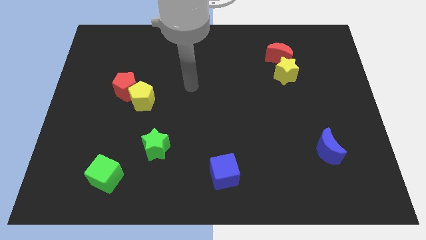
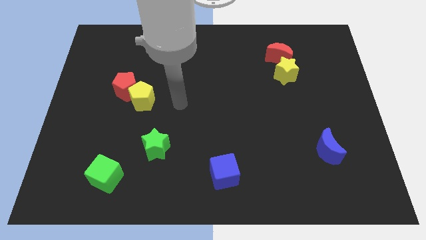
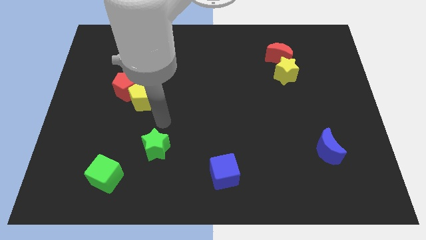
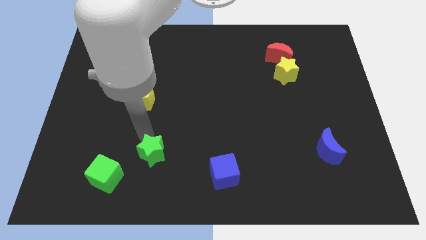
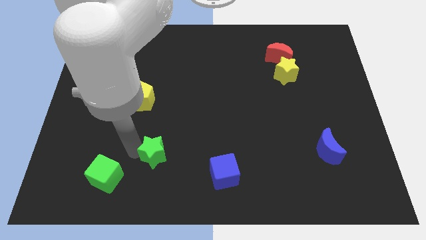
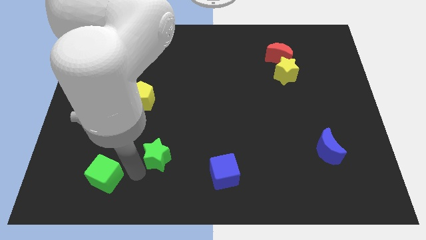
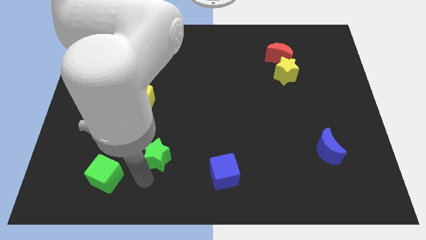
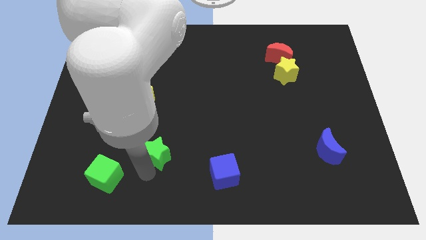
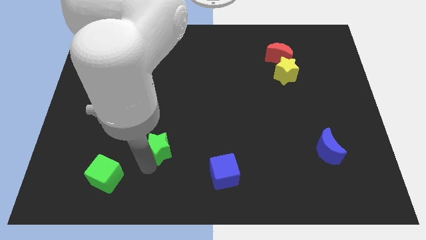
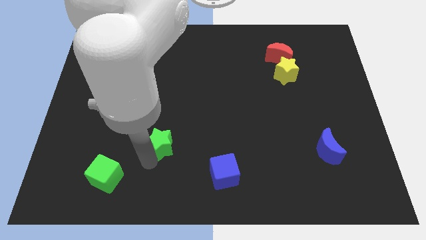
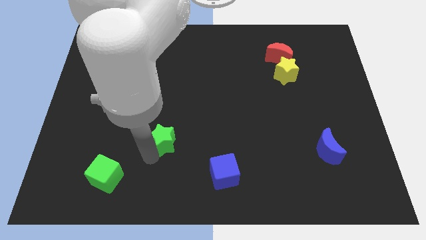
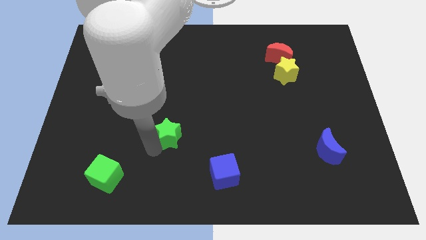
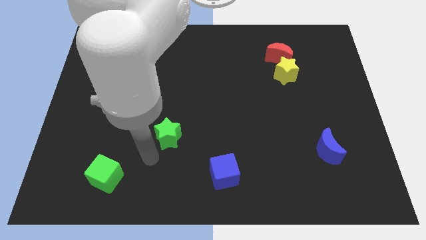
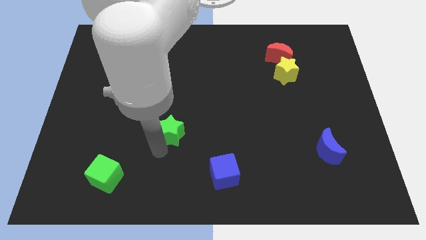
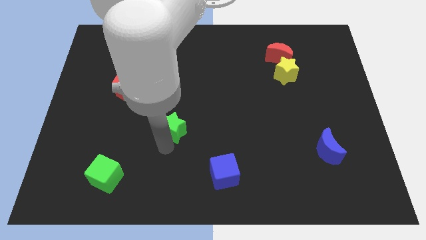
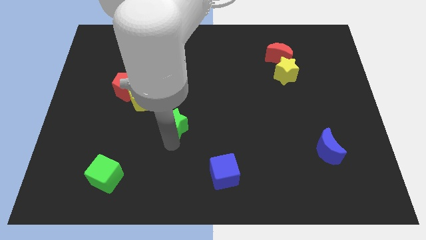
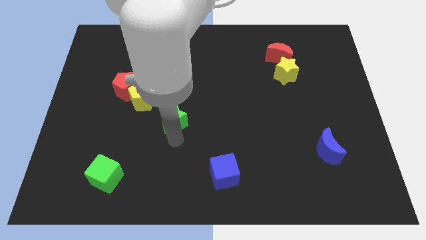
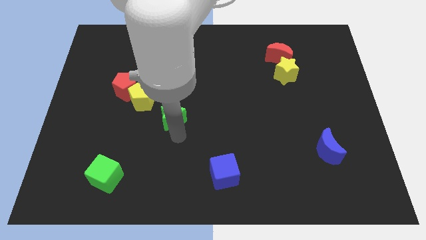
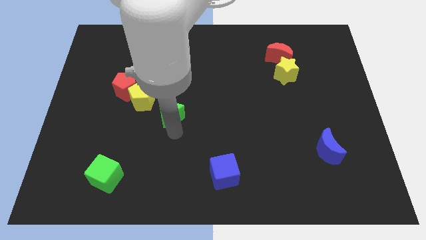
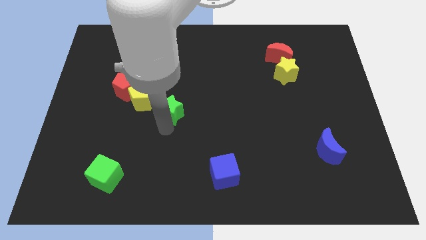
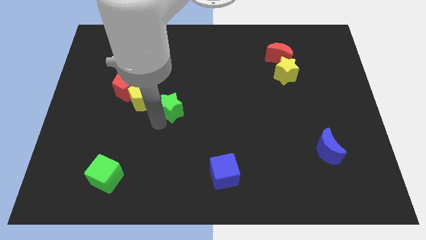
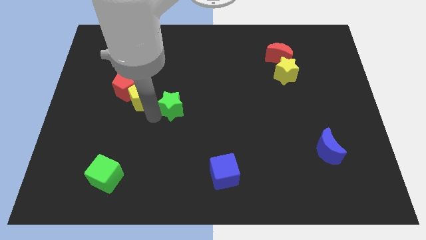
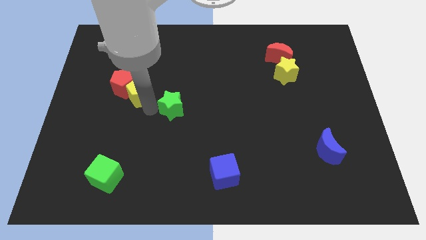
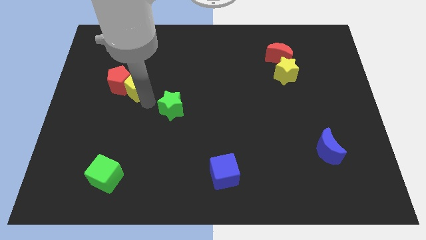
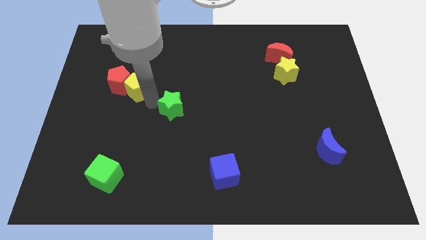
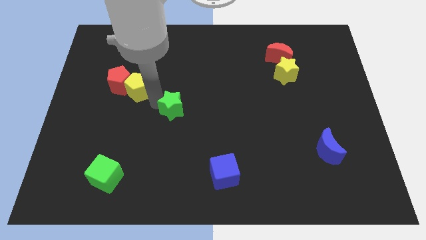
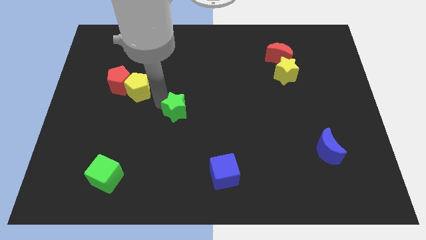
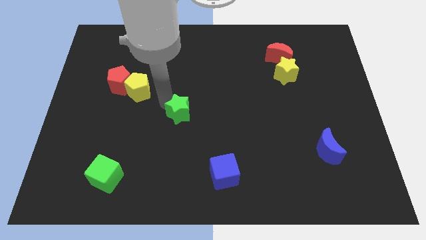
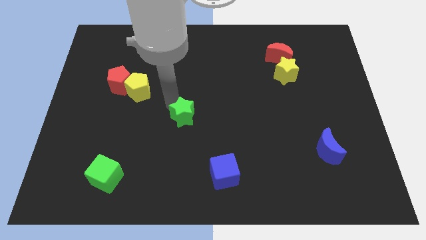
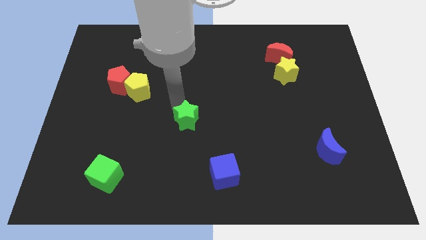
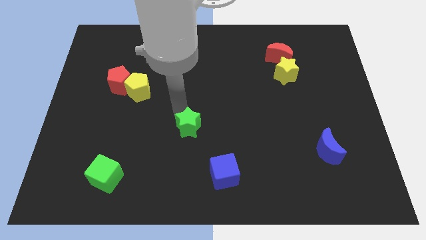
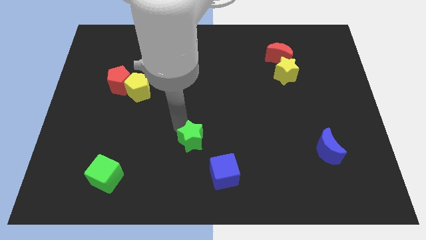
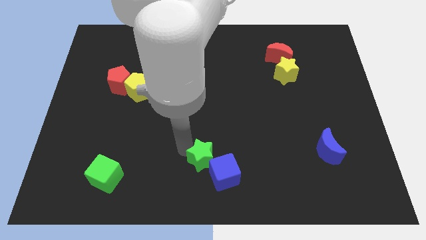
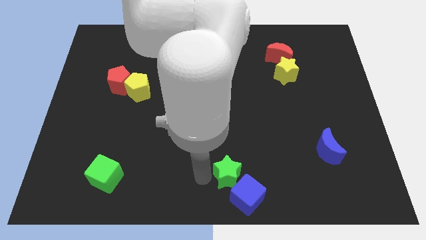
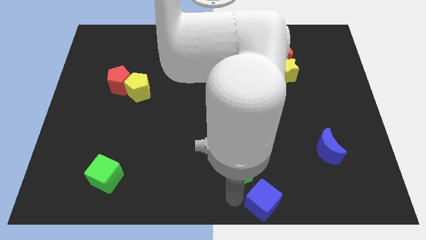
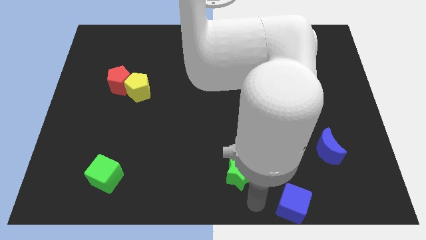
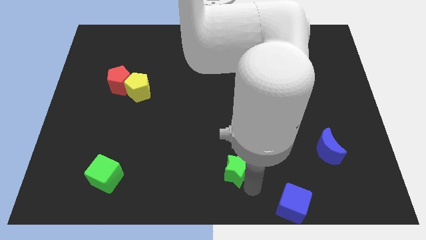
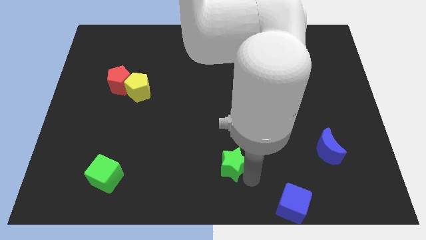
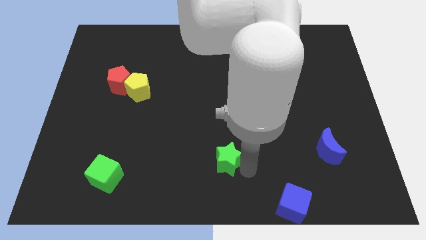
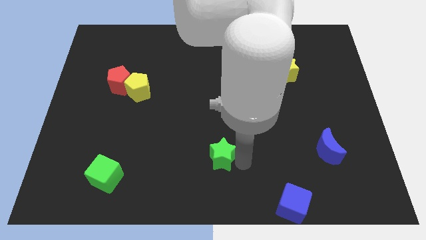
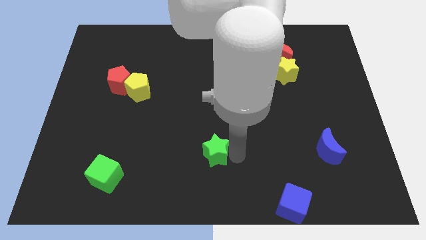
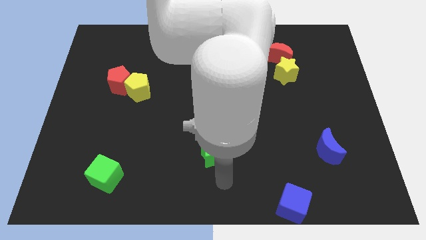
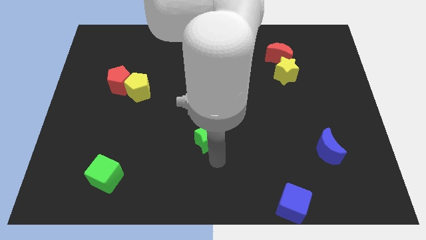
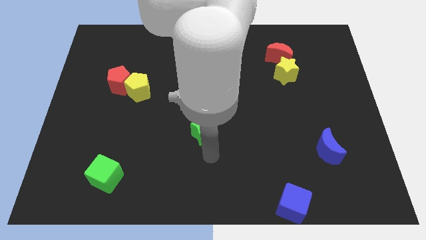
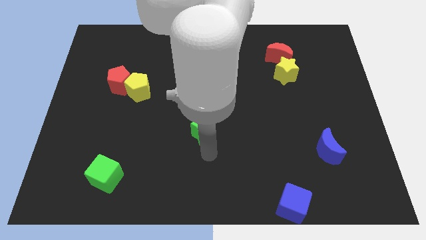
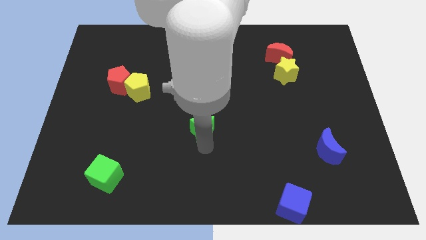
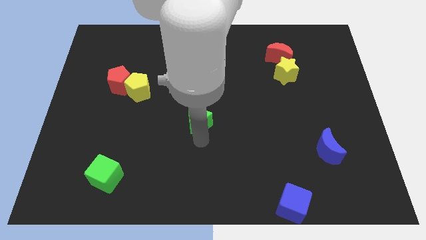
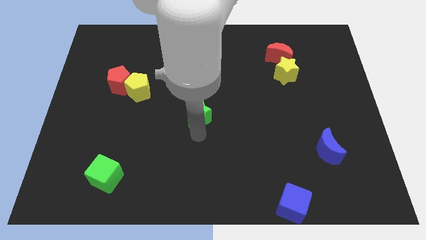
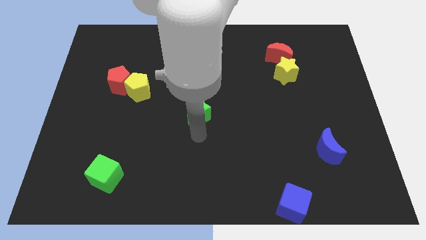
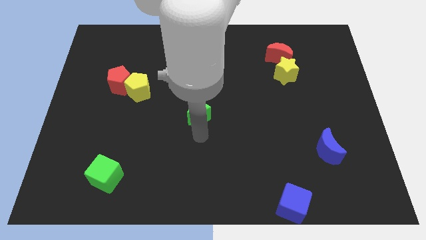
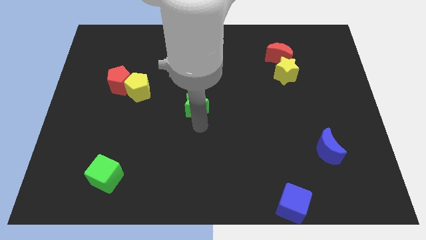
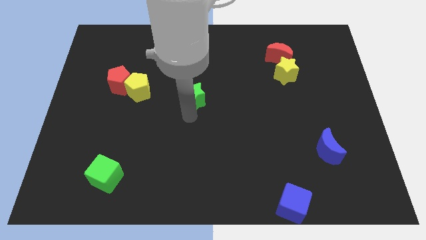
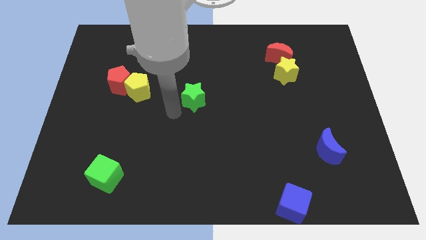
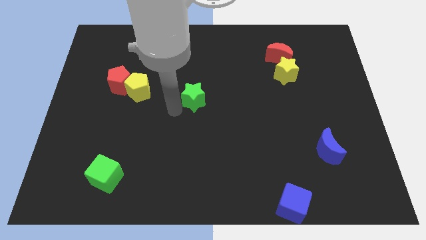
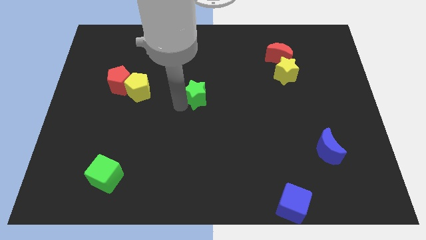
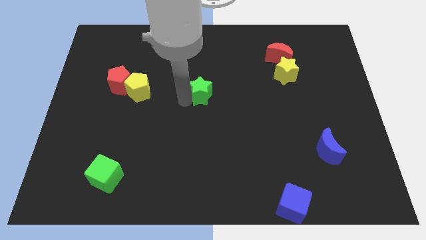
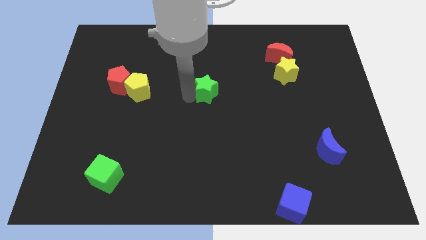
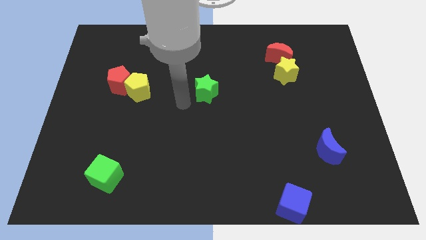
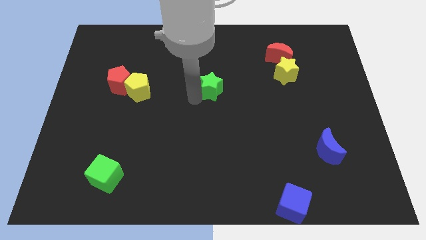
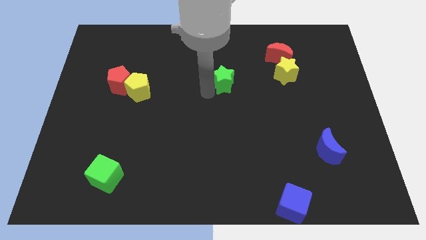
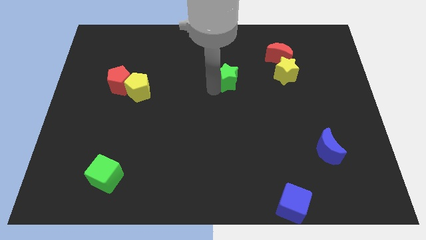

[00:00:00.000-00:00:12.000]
push the green star left of the yellow star

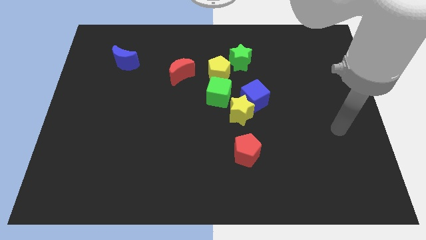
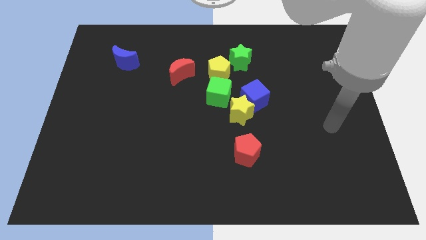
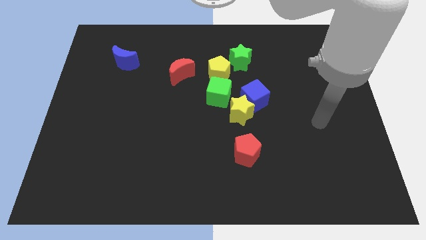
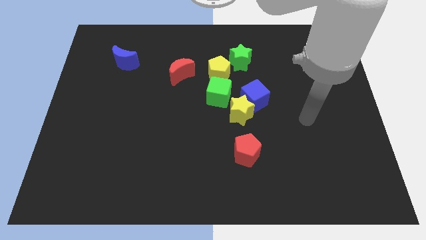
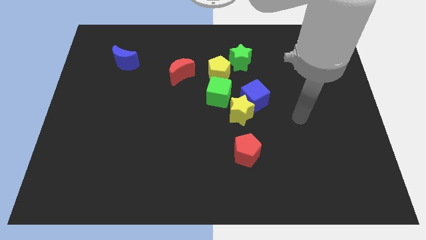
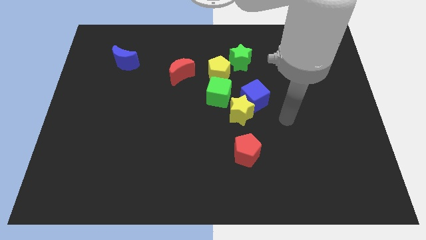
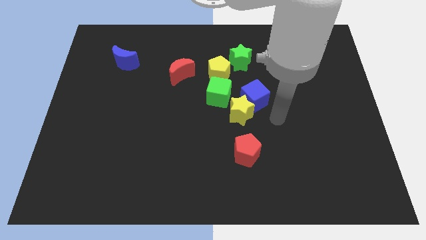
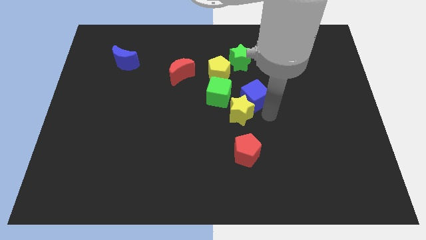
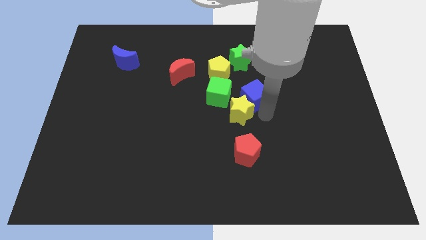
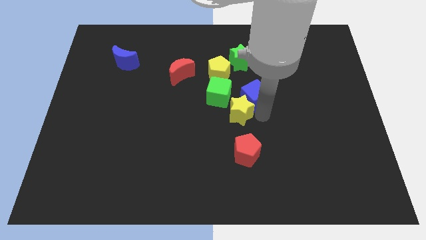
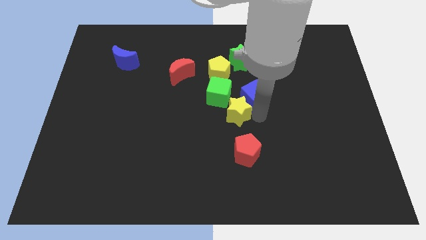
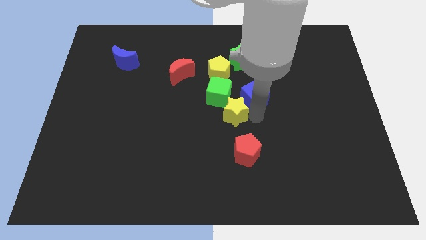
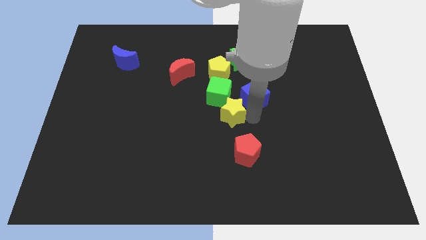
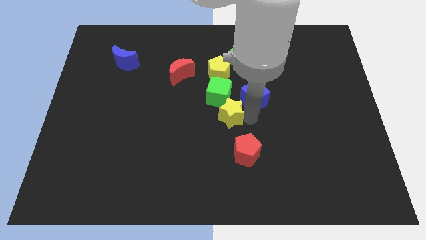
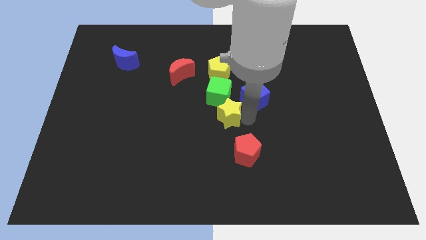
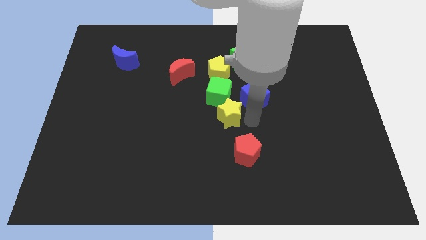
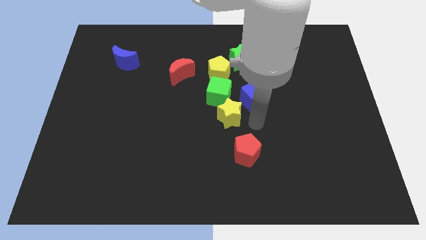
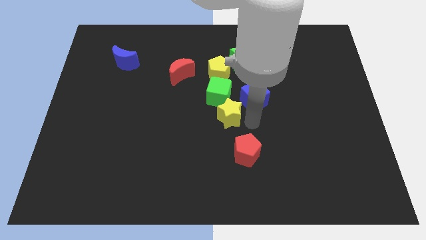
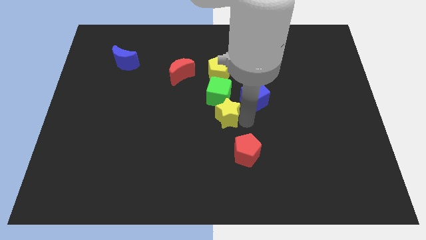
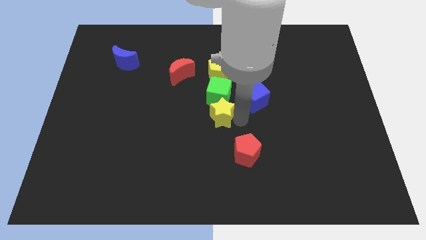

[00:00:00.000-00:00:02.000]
move the yellow star to the bottom left of the green cube

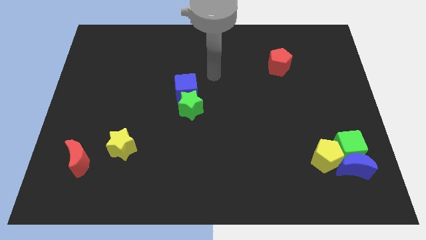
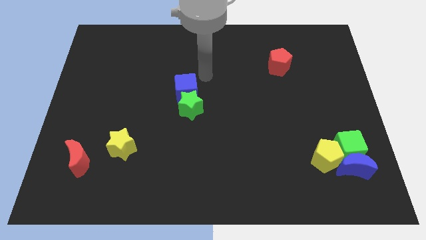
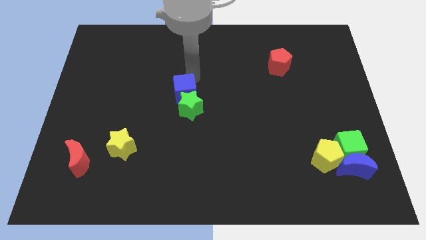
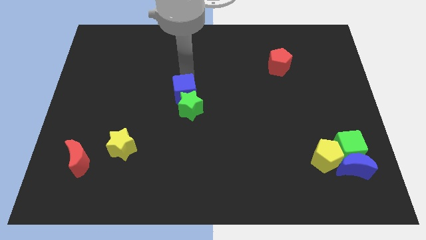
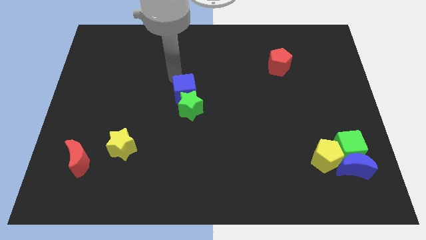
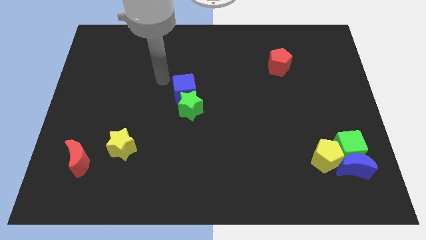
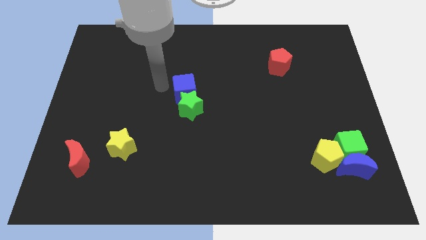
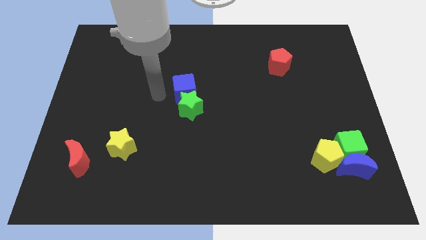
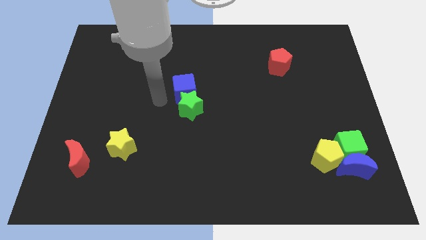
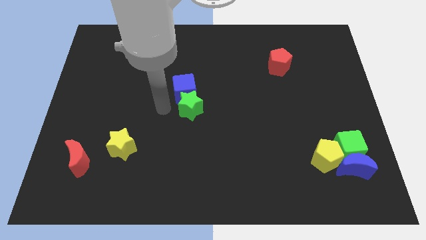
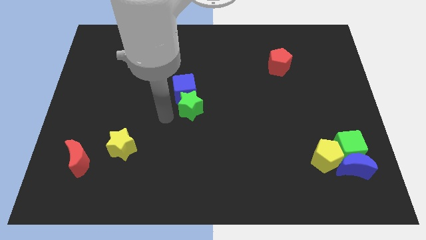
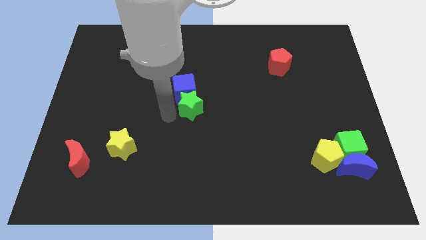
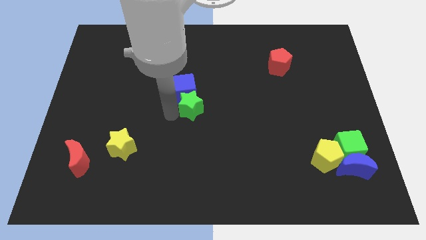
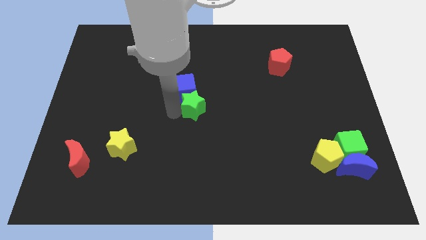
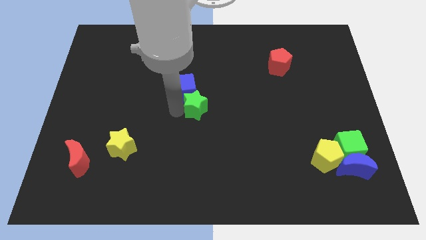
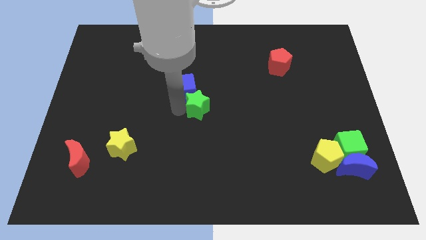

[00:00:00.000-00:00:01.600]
put the green star right of the blue cube
